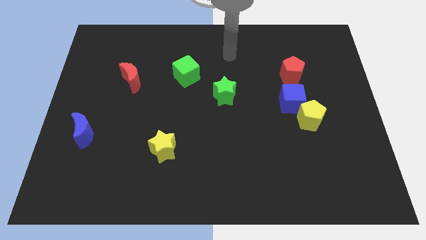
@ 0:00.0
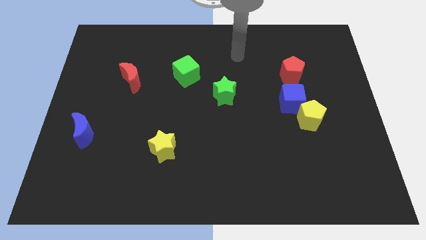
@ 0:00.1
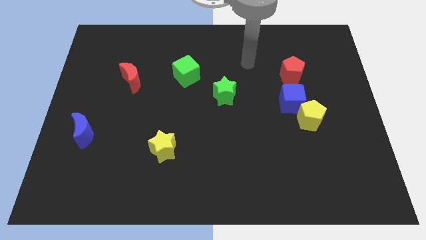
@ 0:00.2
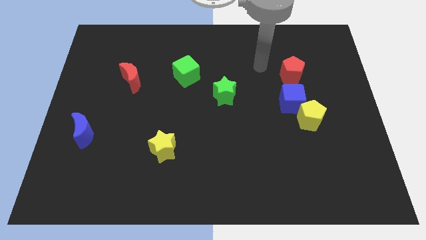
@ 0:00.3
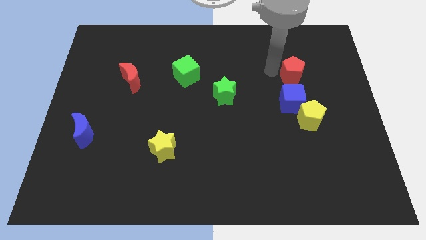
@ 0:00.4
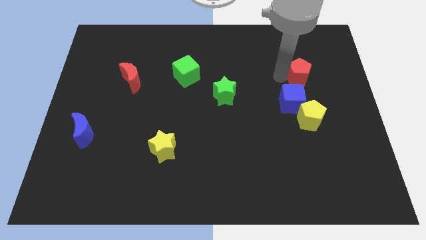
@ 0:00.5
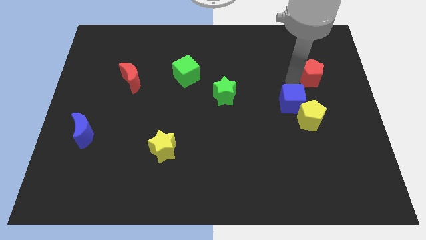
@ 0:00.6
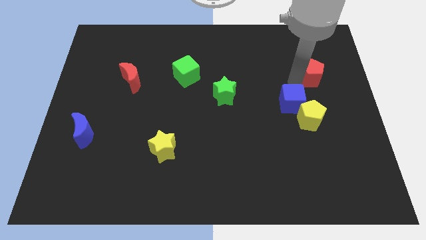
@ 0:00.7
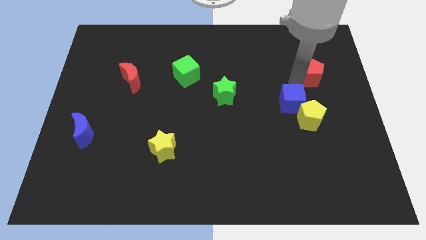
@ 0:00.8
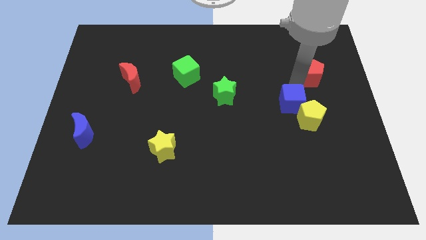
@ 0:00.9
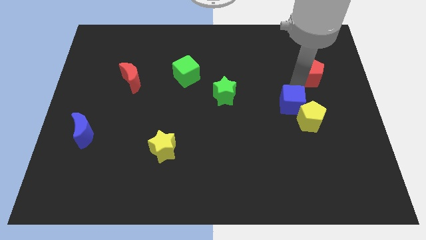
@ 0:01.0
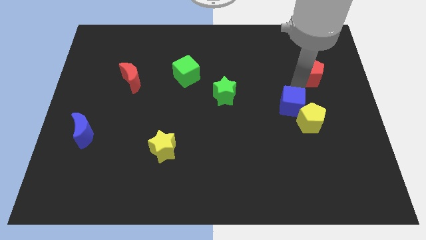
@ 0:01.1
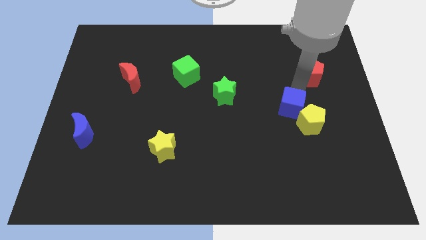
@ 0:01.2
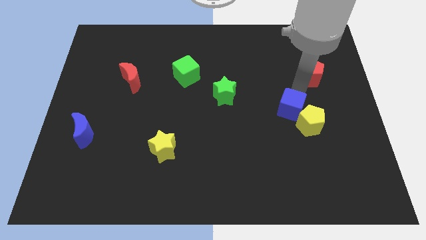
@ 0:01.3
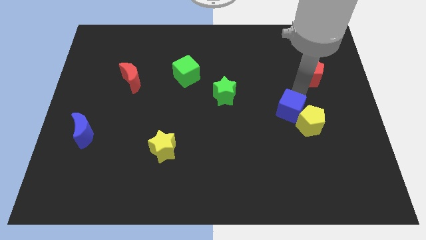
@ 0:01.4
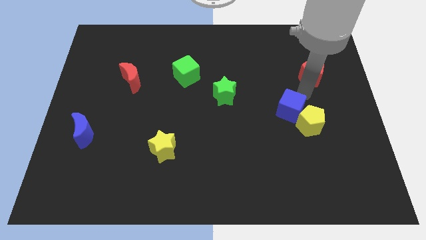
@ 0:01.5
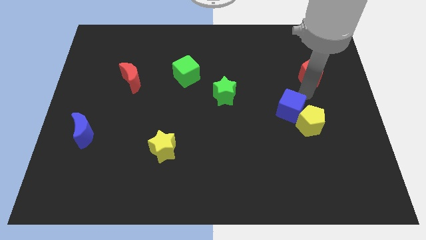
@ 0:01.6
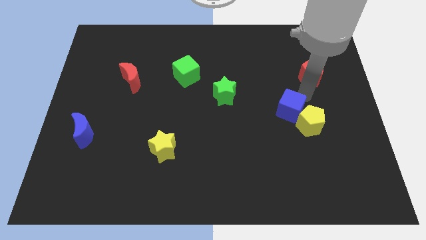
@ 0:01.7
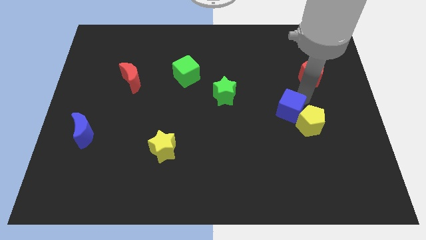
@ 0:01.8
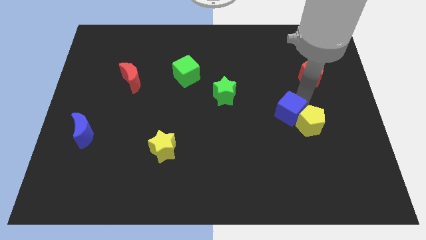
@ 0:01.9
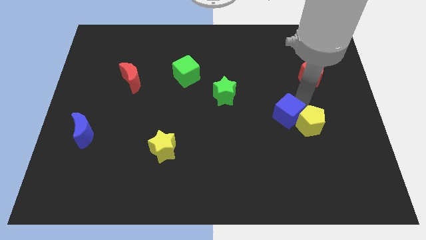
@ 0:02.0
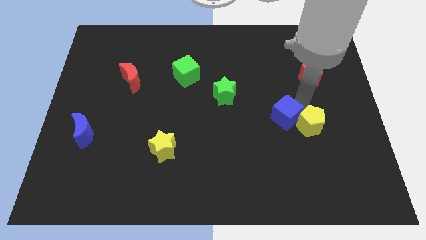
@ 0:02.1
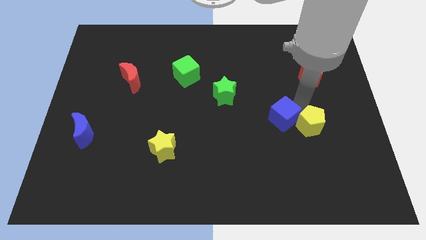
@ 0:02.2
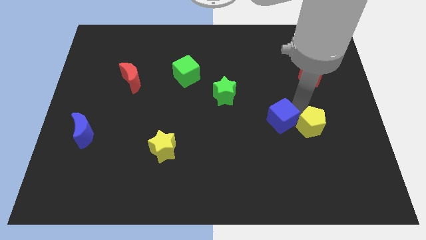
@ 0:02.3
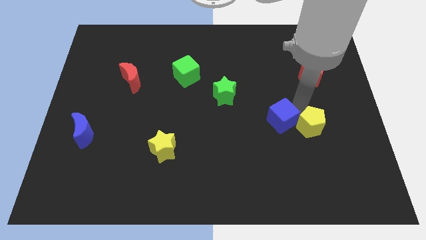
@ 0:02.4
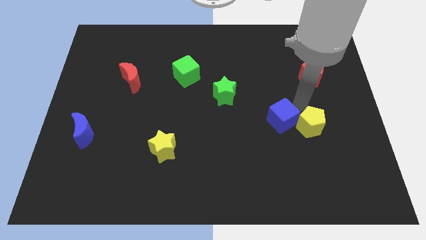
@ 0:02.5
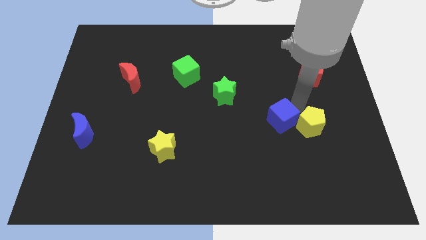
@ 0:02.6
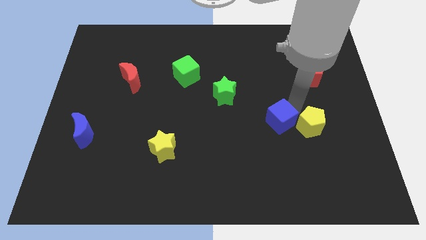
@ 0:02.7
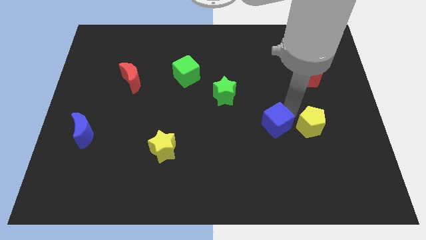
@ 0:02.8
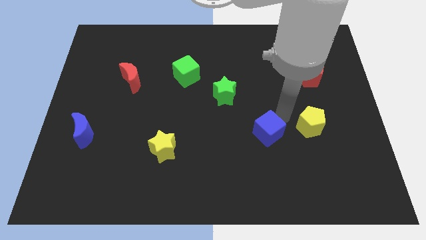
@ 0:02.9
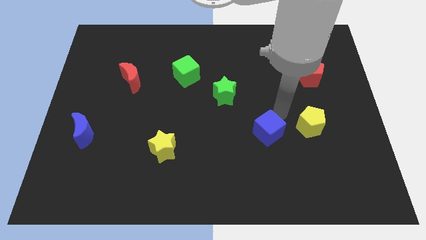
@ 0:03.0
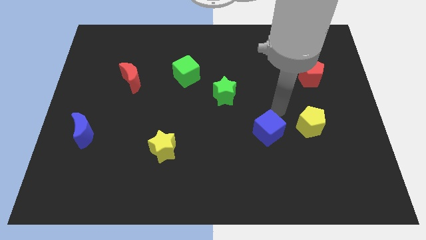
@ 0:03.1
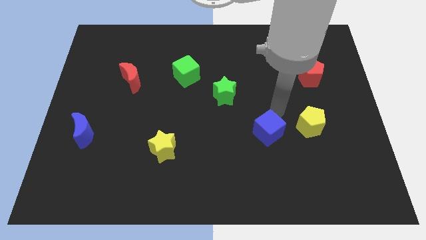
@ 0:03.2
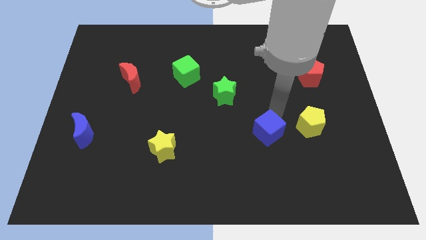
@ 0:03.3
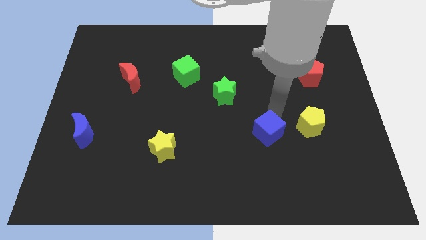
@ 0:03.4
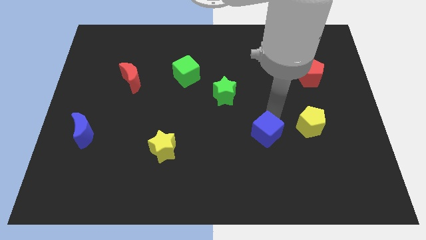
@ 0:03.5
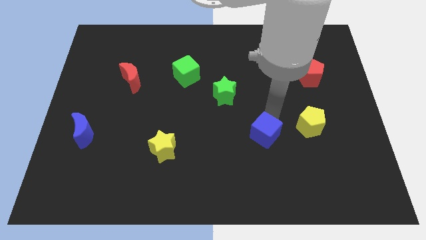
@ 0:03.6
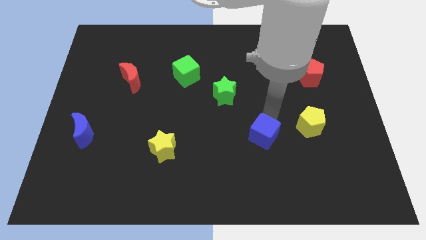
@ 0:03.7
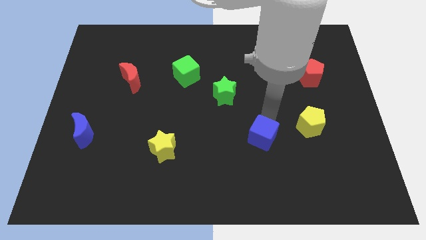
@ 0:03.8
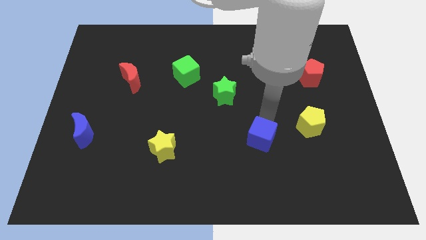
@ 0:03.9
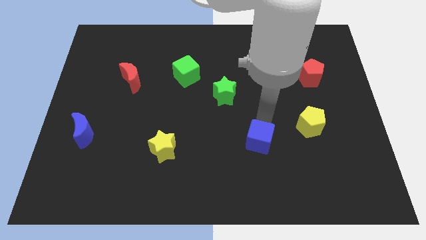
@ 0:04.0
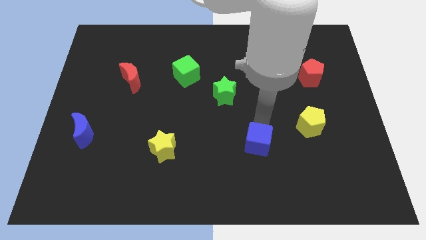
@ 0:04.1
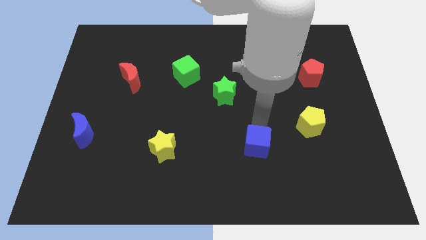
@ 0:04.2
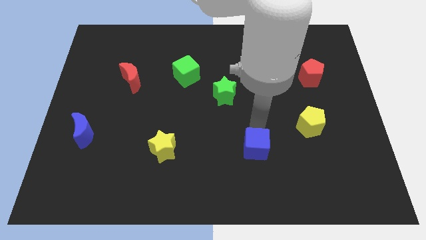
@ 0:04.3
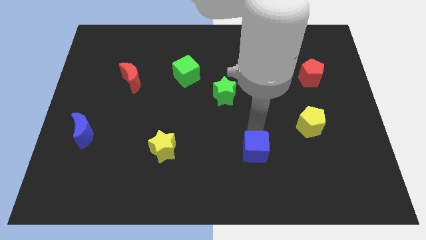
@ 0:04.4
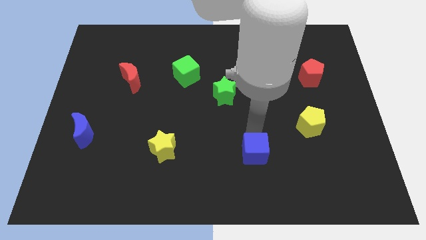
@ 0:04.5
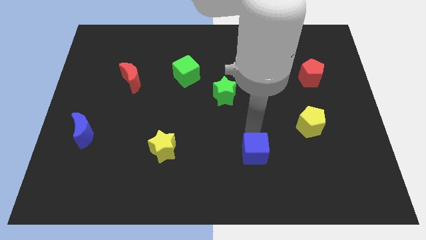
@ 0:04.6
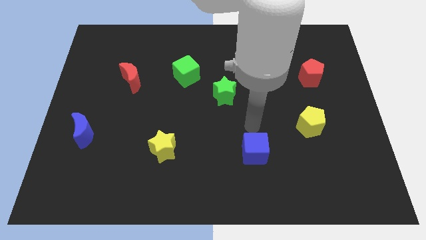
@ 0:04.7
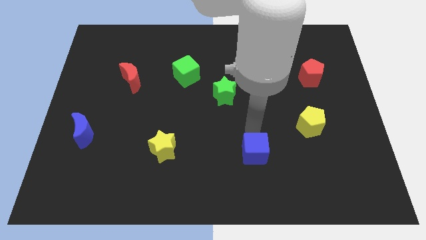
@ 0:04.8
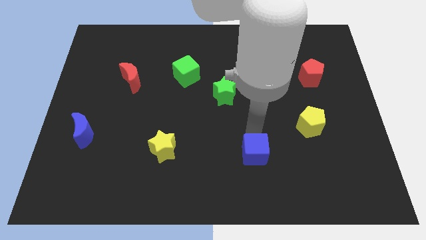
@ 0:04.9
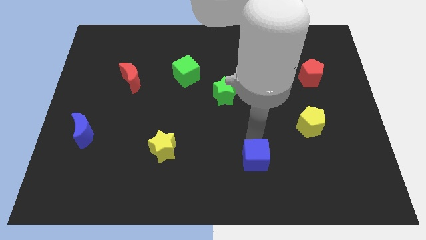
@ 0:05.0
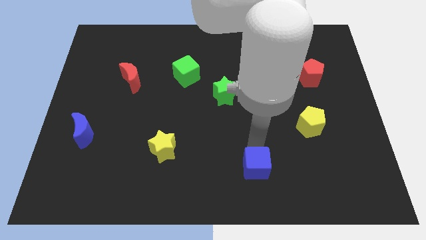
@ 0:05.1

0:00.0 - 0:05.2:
slide the blue cube to the bottom
